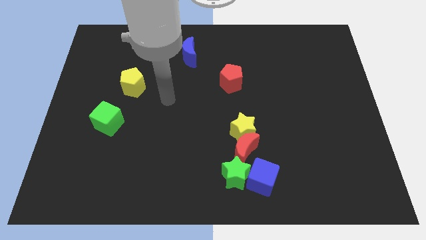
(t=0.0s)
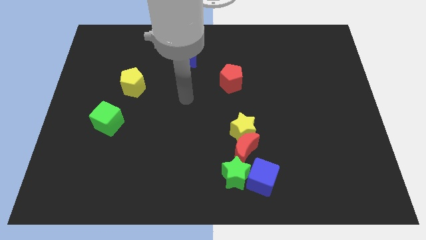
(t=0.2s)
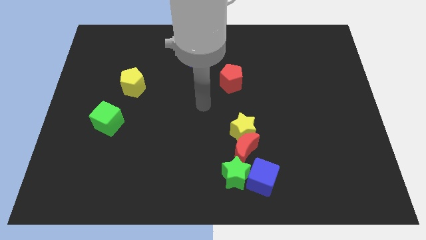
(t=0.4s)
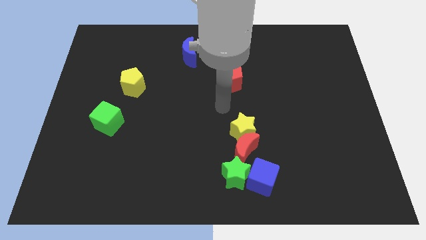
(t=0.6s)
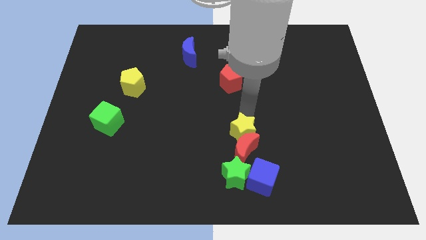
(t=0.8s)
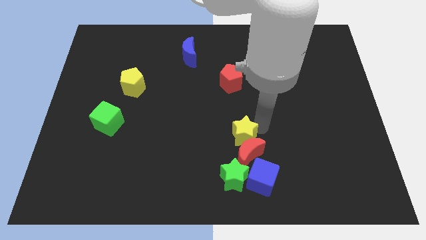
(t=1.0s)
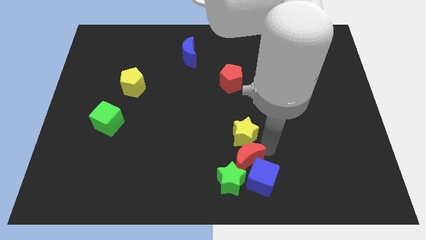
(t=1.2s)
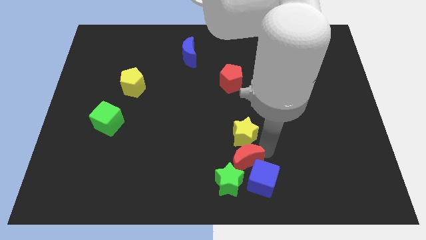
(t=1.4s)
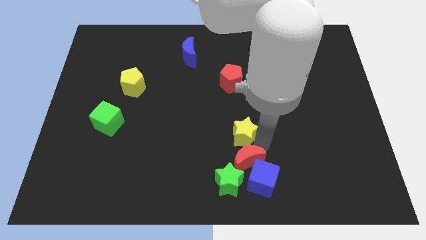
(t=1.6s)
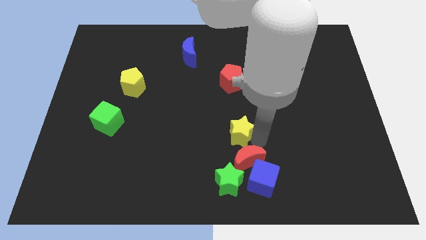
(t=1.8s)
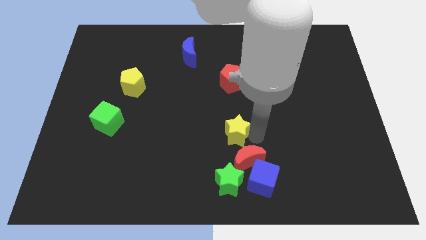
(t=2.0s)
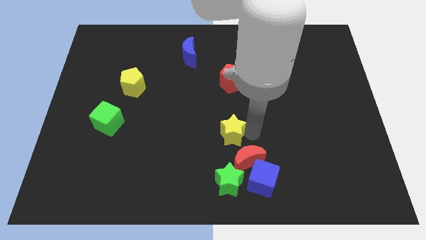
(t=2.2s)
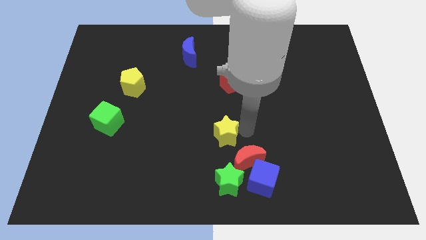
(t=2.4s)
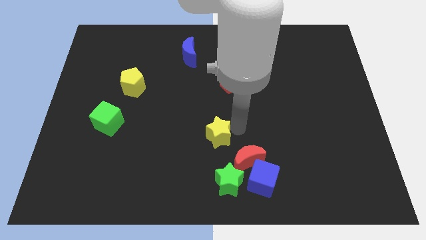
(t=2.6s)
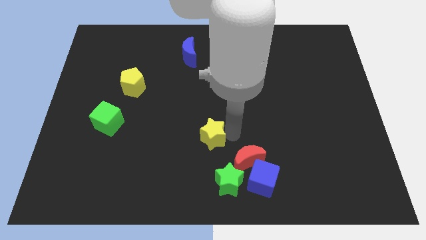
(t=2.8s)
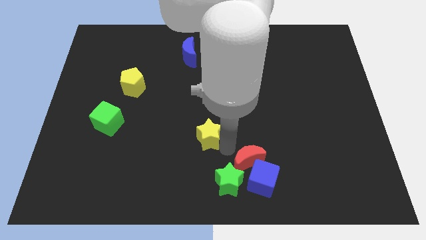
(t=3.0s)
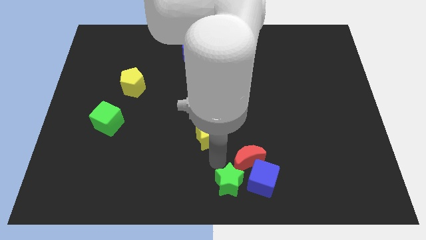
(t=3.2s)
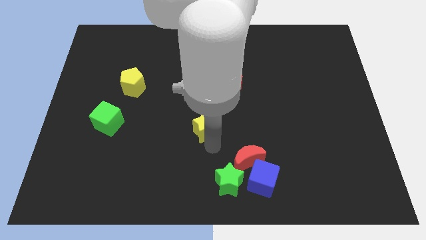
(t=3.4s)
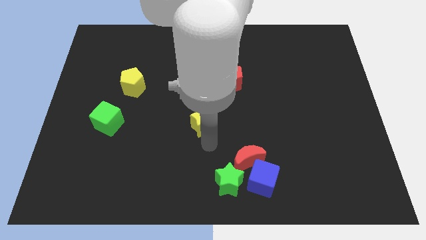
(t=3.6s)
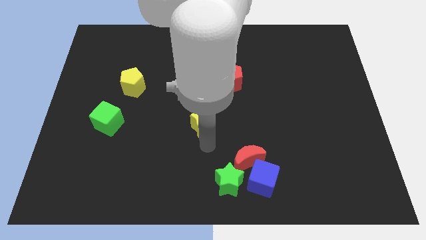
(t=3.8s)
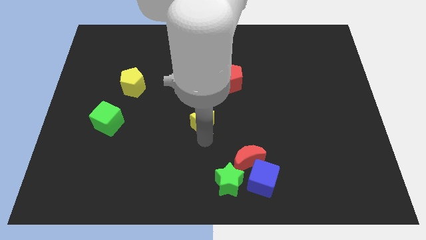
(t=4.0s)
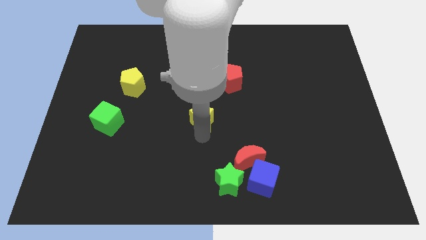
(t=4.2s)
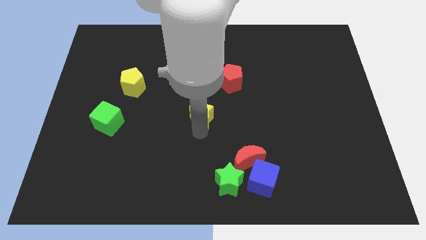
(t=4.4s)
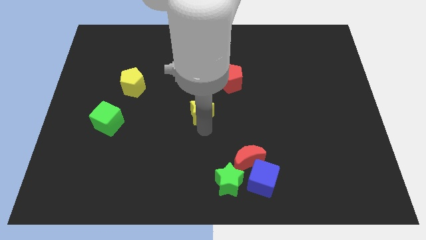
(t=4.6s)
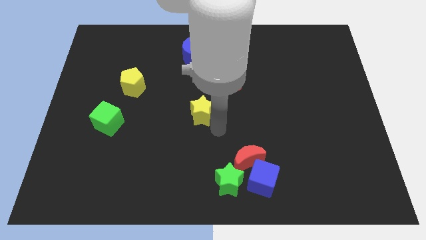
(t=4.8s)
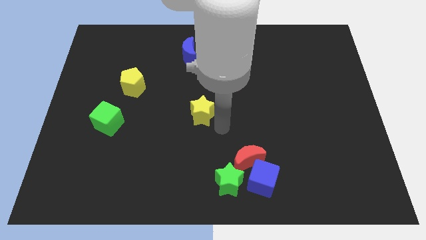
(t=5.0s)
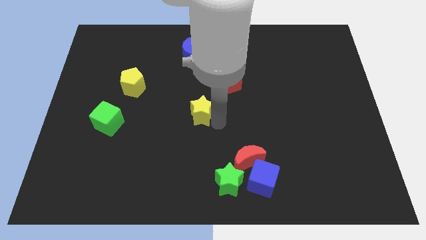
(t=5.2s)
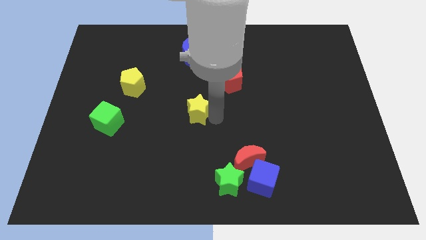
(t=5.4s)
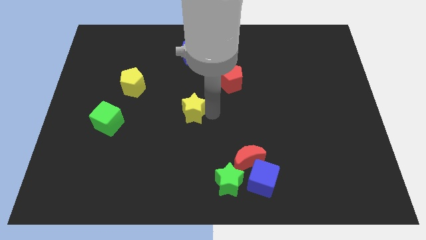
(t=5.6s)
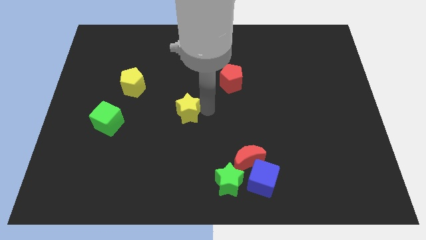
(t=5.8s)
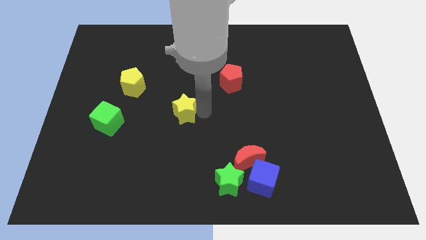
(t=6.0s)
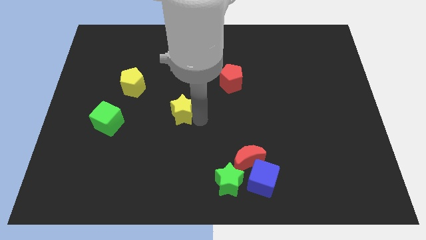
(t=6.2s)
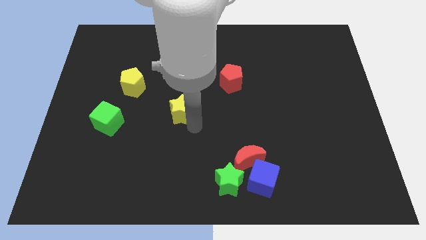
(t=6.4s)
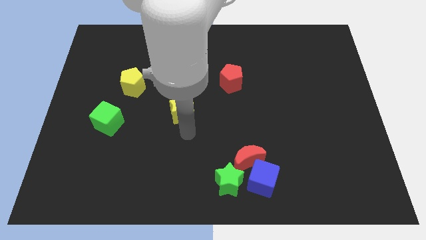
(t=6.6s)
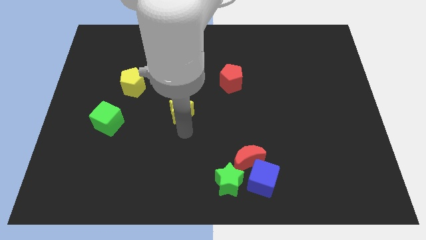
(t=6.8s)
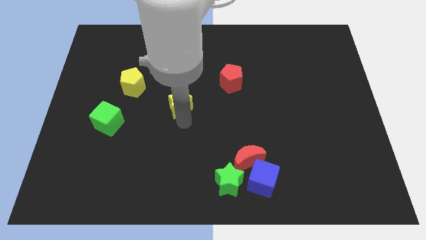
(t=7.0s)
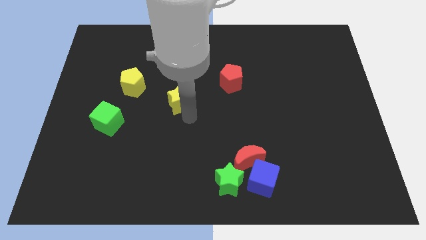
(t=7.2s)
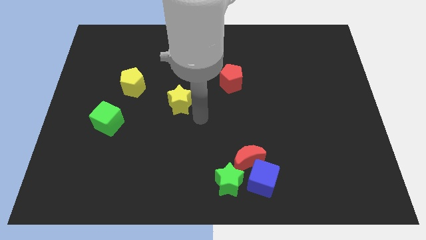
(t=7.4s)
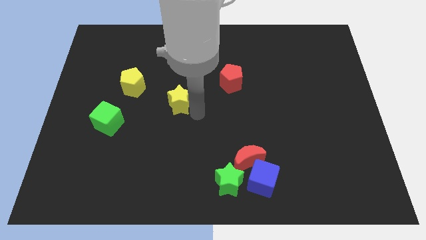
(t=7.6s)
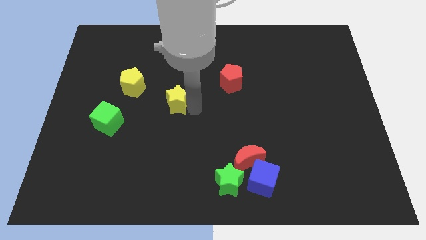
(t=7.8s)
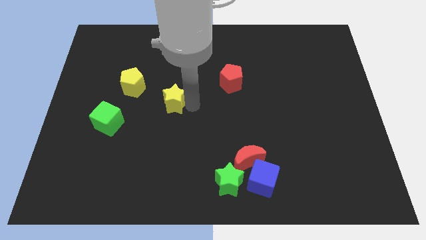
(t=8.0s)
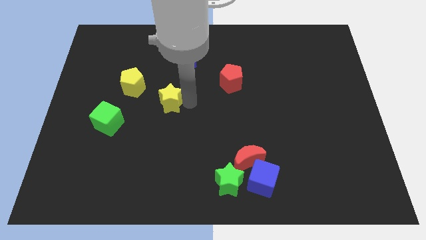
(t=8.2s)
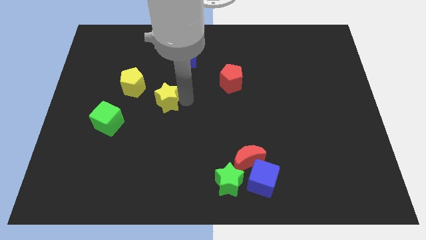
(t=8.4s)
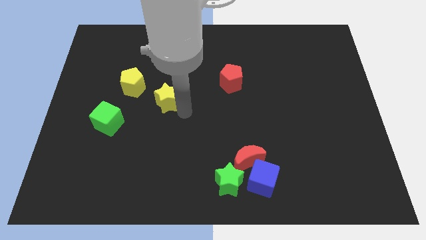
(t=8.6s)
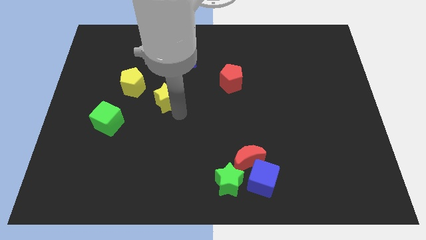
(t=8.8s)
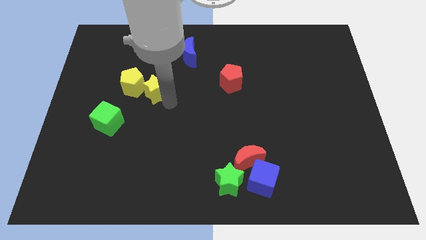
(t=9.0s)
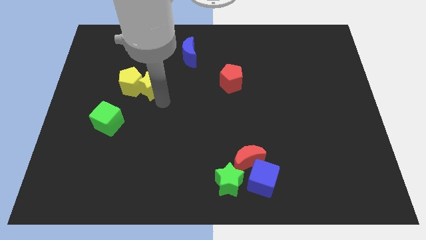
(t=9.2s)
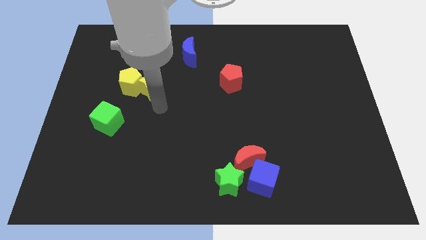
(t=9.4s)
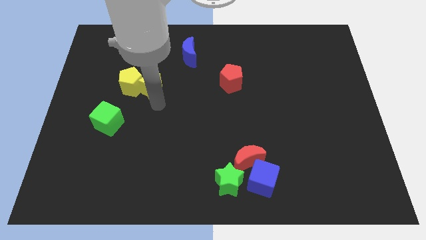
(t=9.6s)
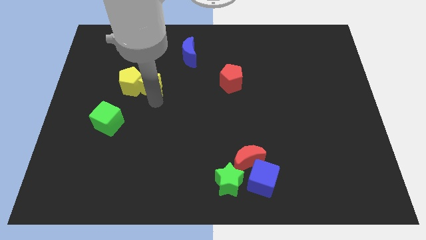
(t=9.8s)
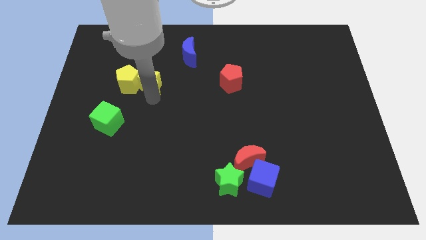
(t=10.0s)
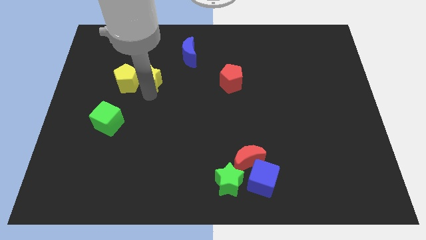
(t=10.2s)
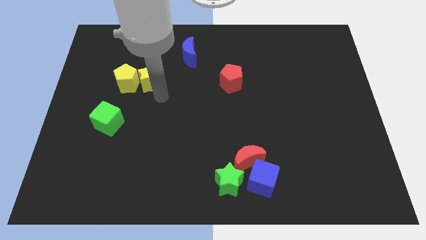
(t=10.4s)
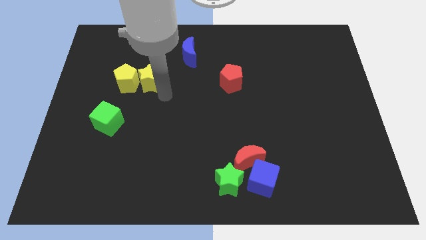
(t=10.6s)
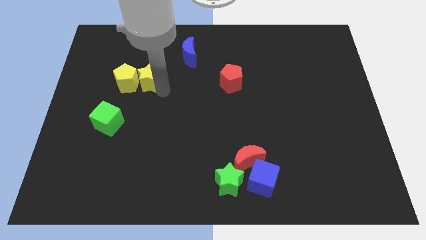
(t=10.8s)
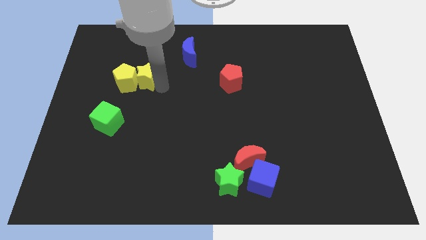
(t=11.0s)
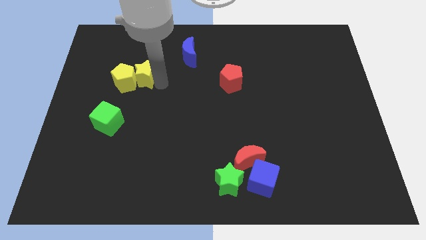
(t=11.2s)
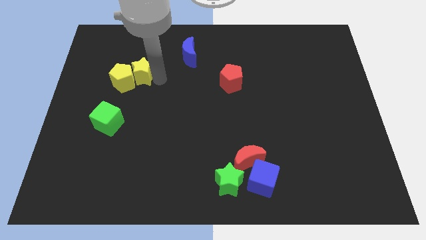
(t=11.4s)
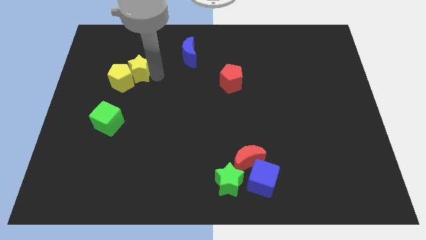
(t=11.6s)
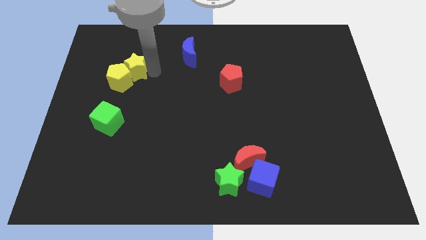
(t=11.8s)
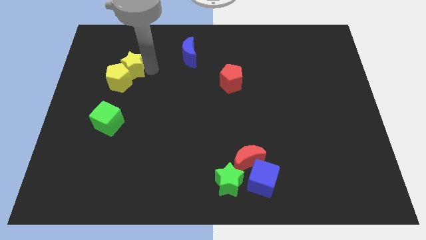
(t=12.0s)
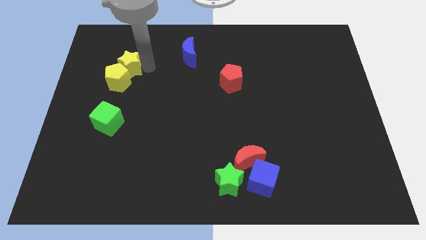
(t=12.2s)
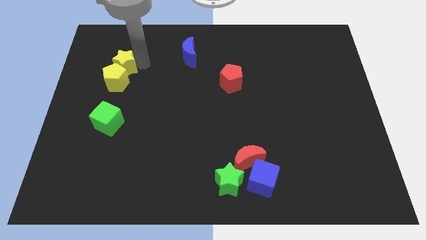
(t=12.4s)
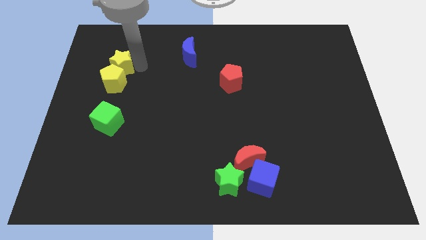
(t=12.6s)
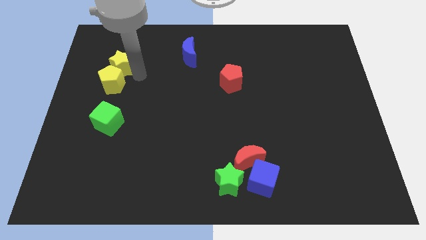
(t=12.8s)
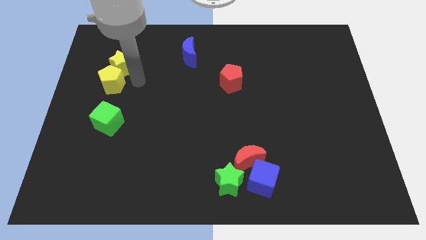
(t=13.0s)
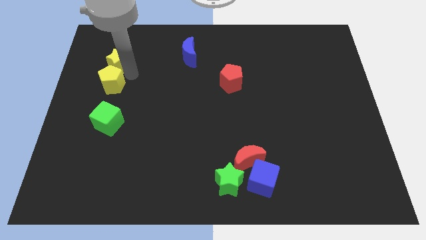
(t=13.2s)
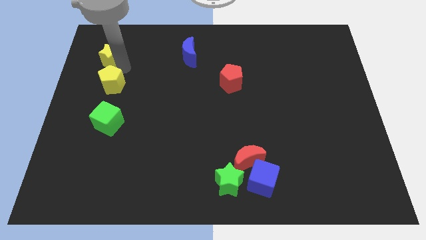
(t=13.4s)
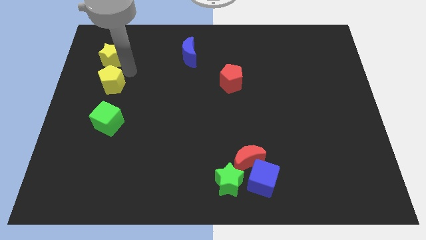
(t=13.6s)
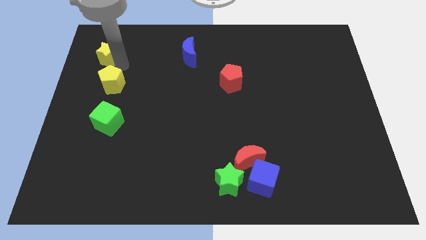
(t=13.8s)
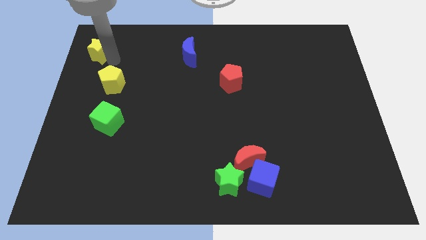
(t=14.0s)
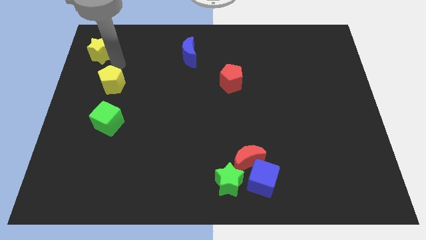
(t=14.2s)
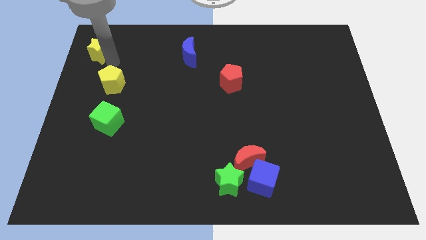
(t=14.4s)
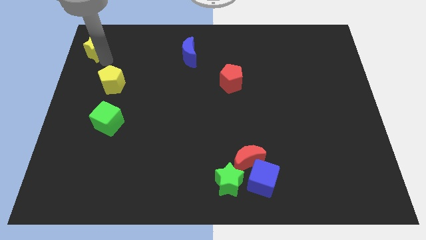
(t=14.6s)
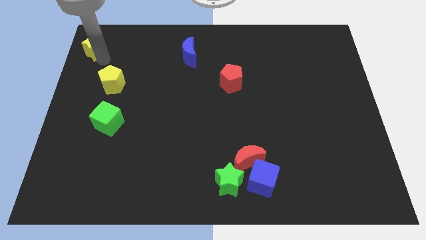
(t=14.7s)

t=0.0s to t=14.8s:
move the yellow star to the top left corner
